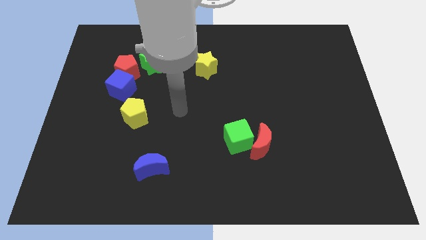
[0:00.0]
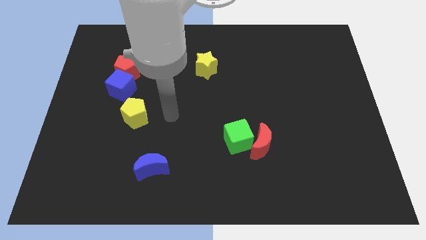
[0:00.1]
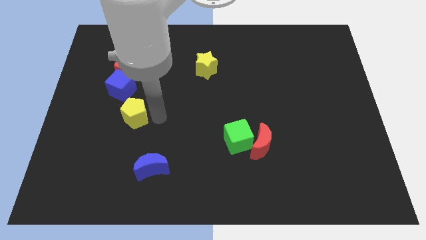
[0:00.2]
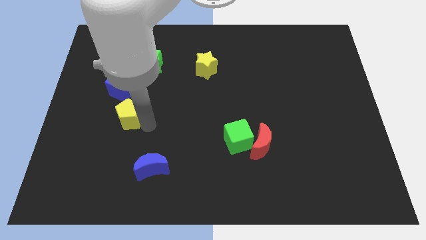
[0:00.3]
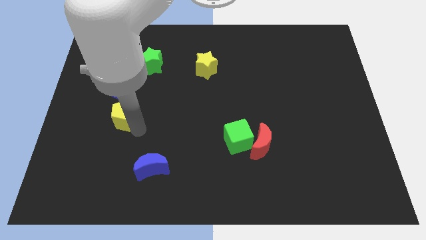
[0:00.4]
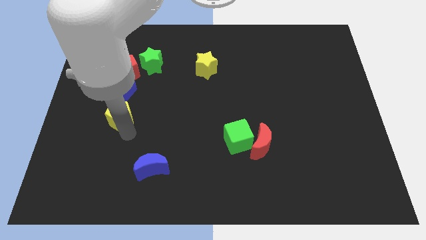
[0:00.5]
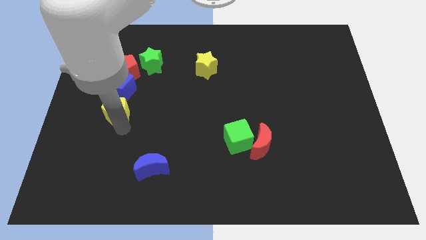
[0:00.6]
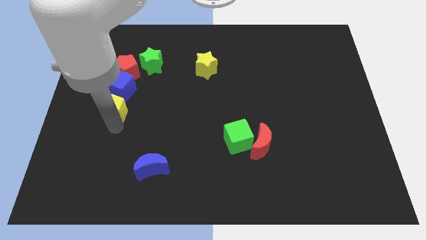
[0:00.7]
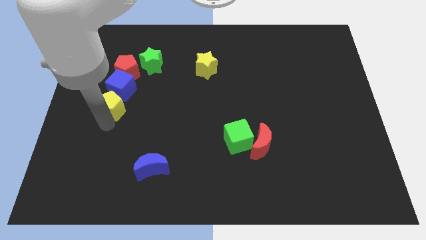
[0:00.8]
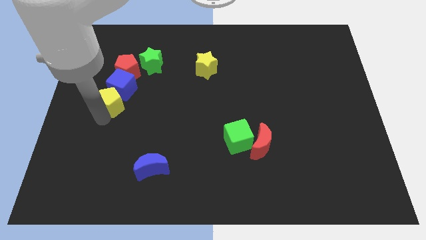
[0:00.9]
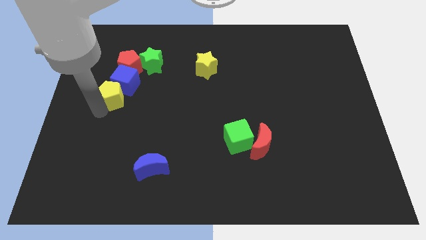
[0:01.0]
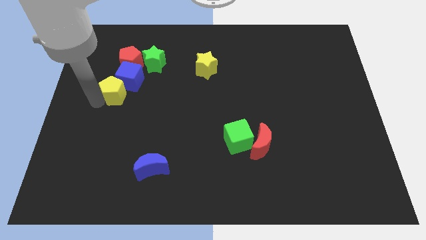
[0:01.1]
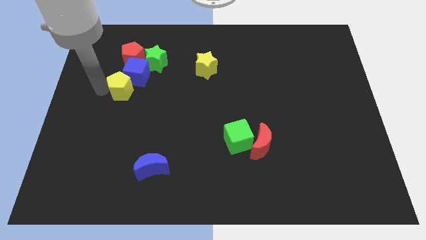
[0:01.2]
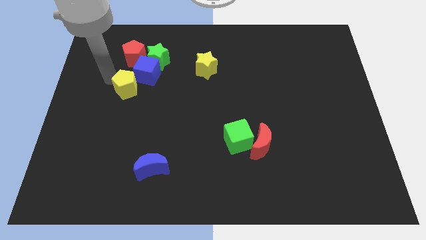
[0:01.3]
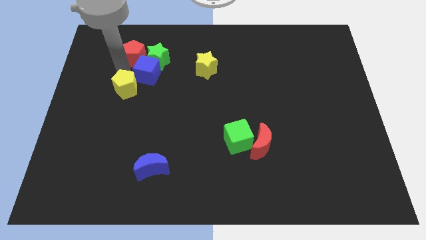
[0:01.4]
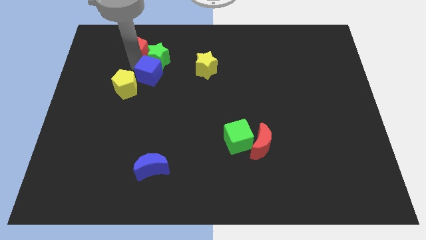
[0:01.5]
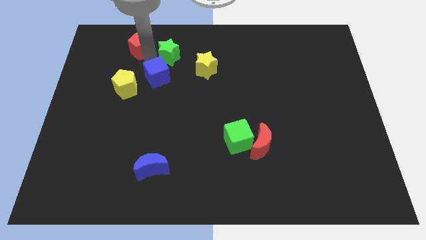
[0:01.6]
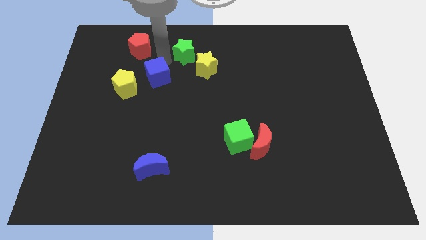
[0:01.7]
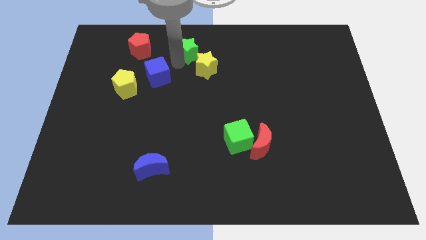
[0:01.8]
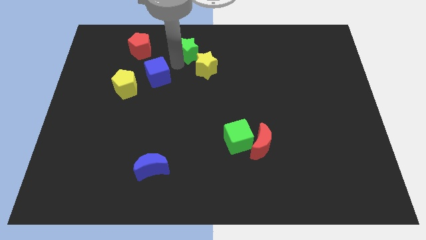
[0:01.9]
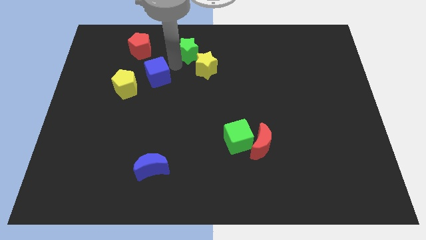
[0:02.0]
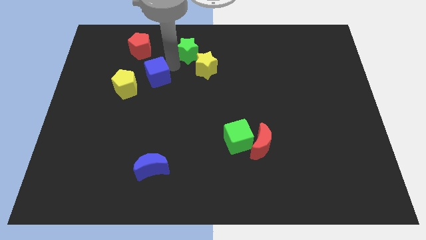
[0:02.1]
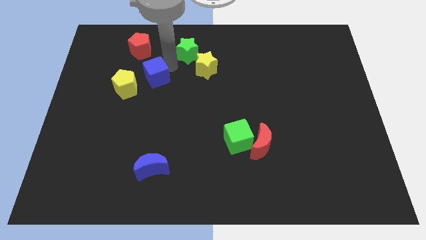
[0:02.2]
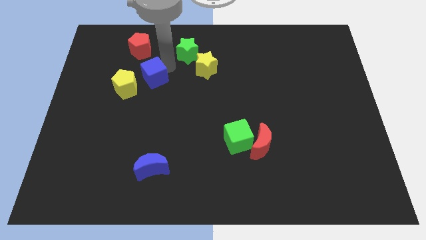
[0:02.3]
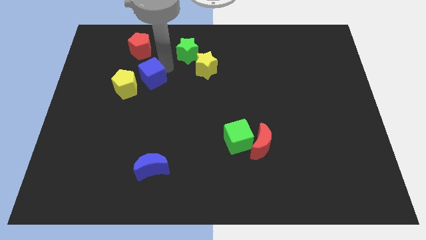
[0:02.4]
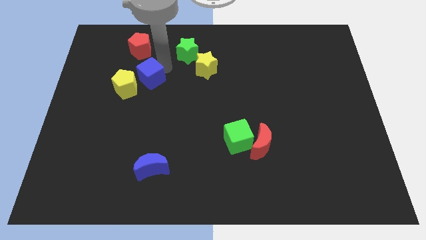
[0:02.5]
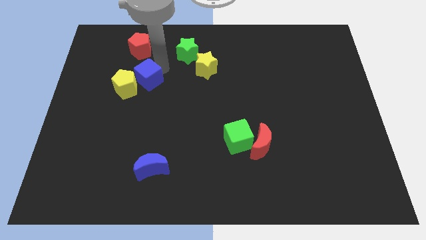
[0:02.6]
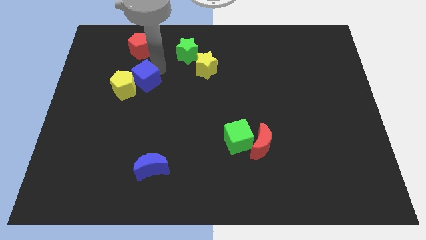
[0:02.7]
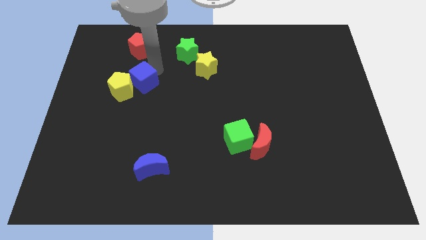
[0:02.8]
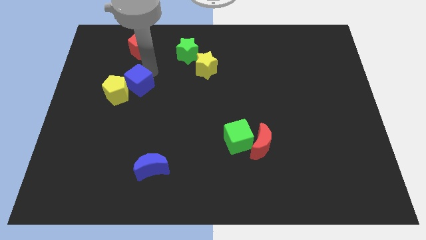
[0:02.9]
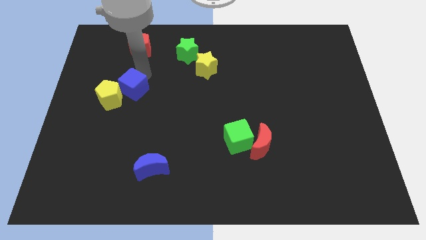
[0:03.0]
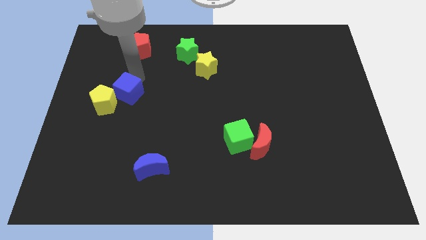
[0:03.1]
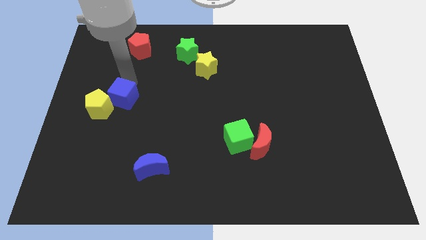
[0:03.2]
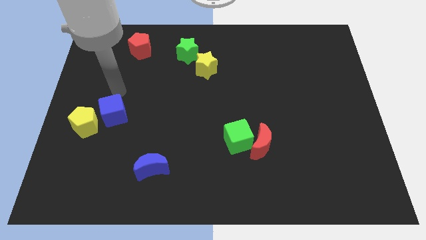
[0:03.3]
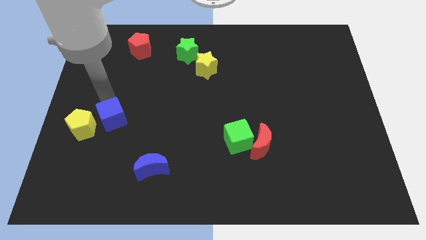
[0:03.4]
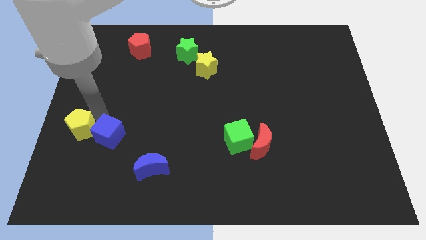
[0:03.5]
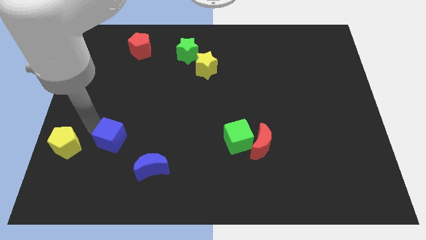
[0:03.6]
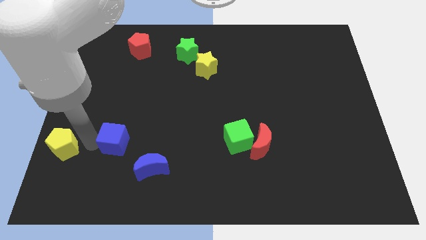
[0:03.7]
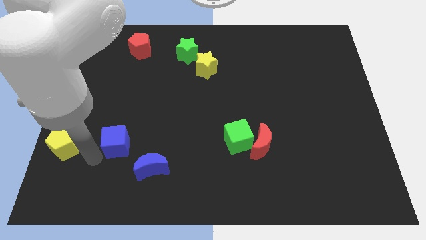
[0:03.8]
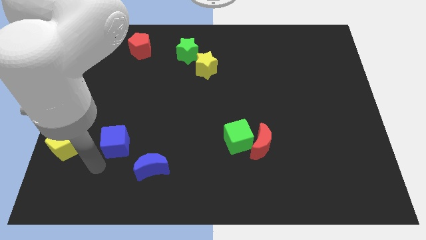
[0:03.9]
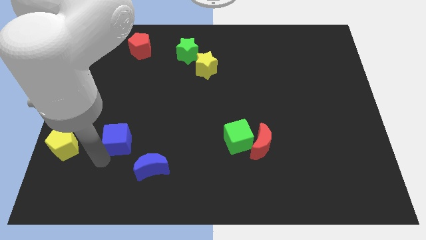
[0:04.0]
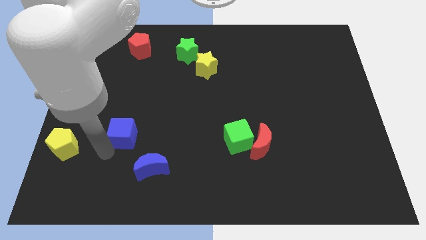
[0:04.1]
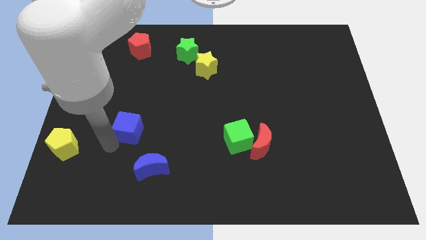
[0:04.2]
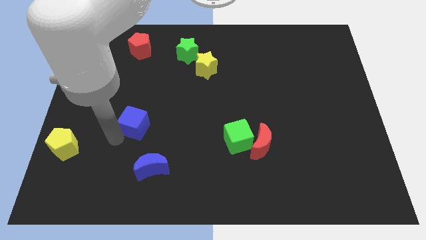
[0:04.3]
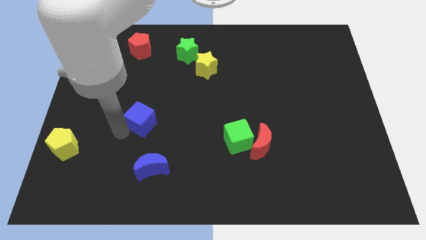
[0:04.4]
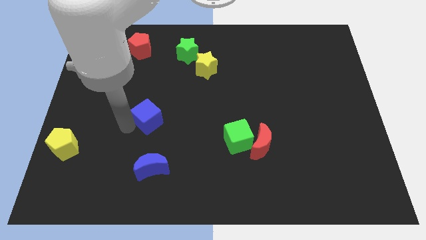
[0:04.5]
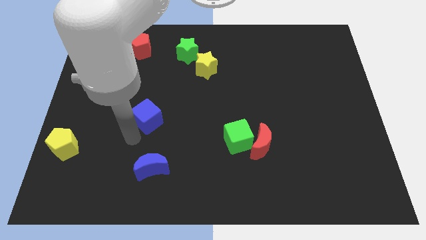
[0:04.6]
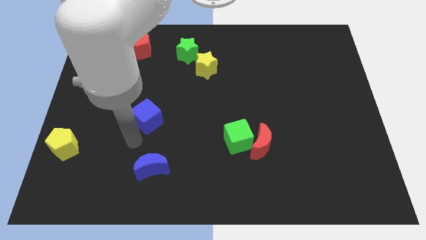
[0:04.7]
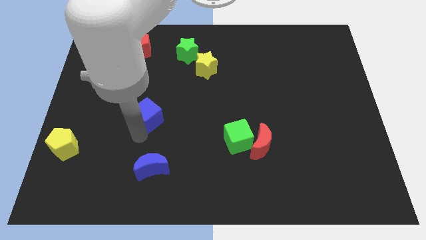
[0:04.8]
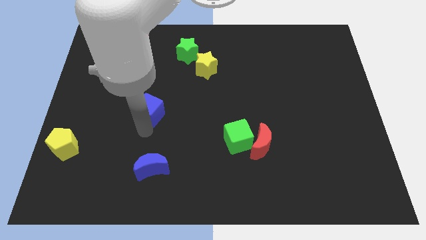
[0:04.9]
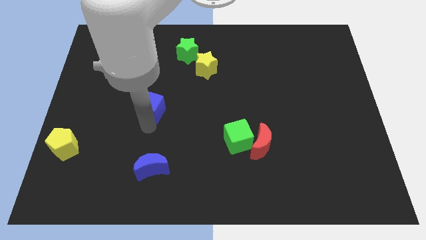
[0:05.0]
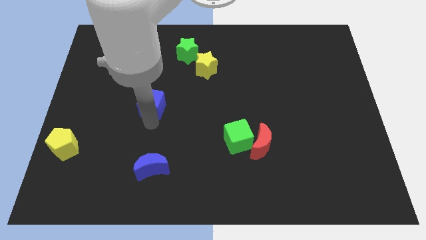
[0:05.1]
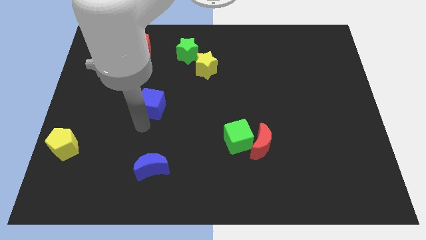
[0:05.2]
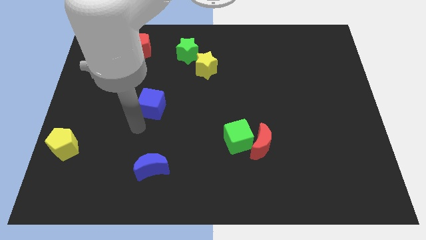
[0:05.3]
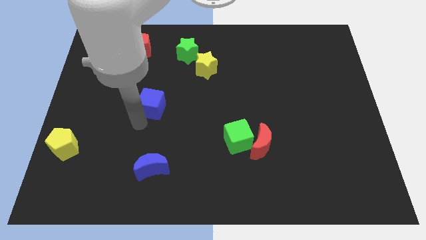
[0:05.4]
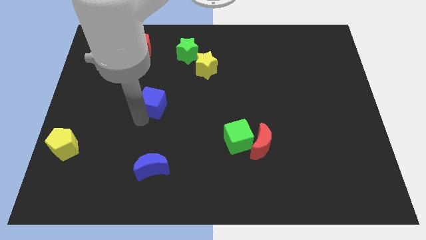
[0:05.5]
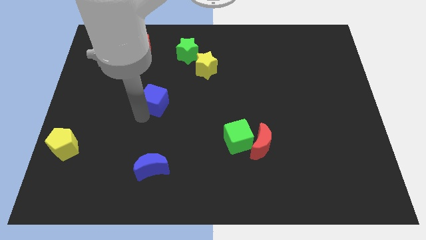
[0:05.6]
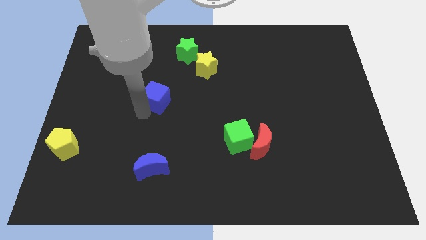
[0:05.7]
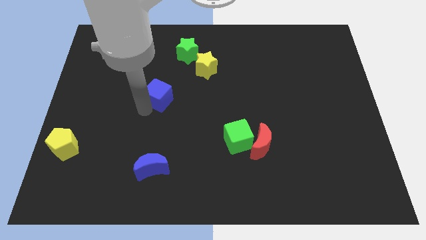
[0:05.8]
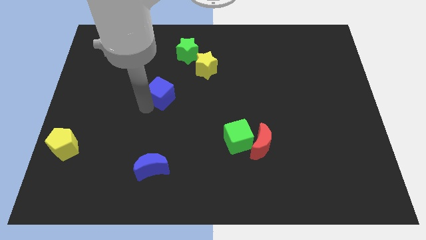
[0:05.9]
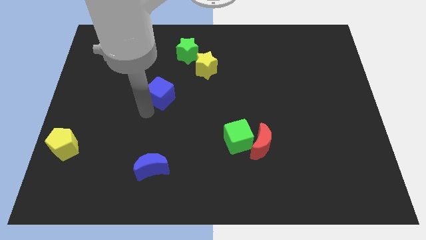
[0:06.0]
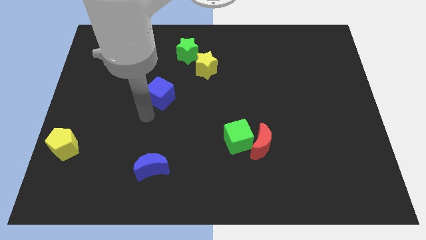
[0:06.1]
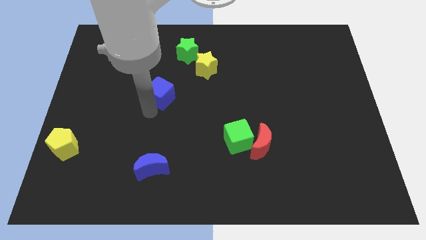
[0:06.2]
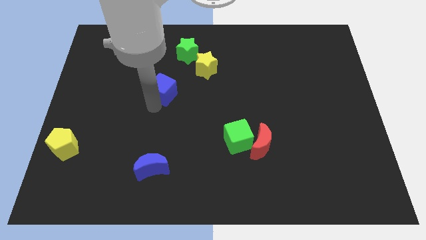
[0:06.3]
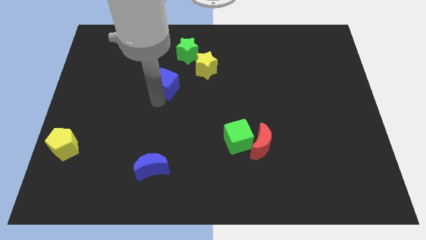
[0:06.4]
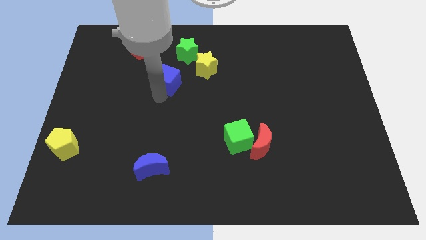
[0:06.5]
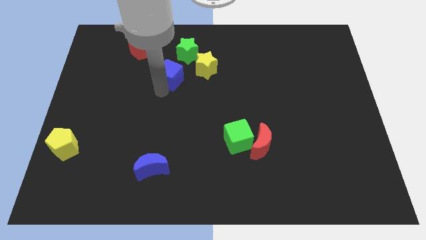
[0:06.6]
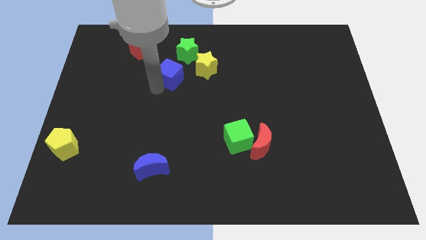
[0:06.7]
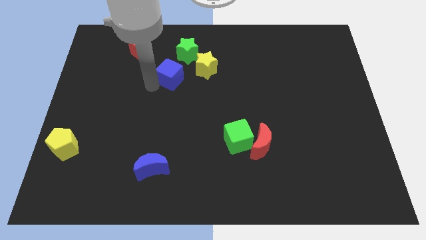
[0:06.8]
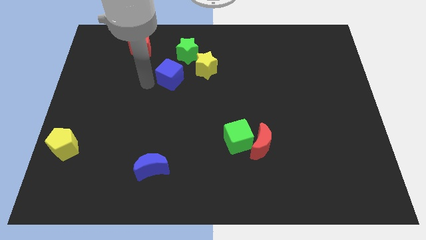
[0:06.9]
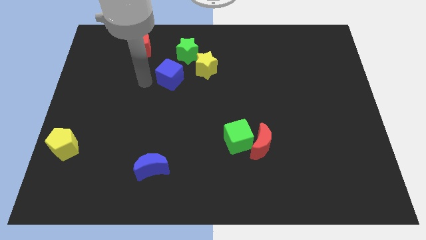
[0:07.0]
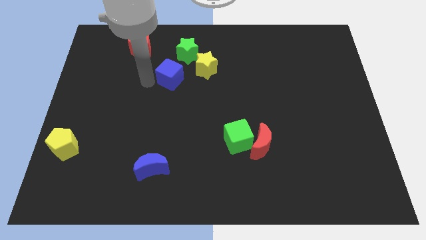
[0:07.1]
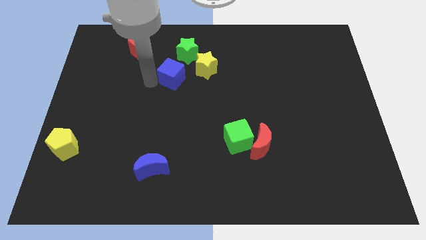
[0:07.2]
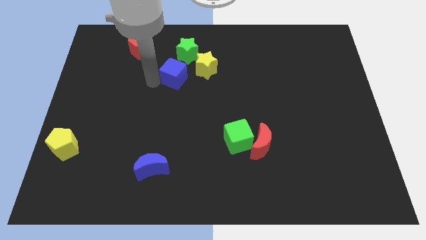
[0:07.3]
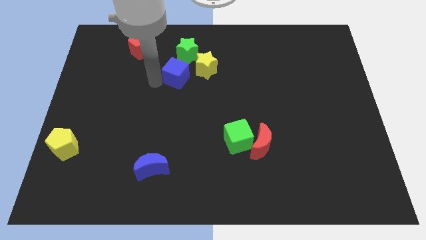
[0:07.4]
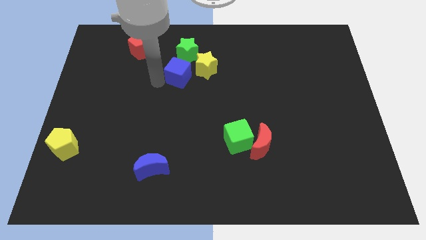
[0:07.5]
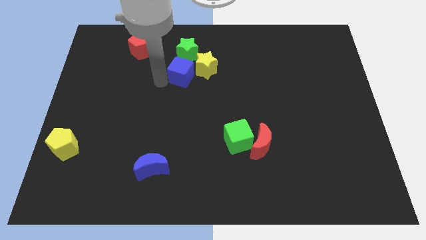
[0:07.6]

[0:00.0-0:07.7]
slide the blue cube towards the yellow star
